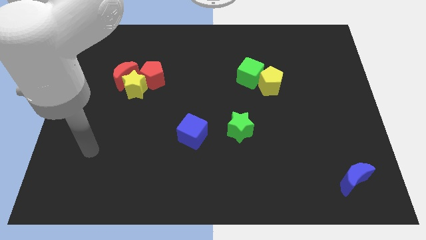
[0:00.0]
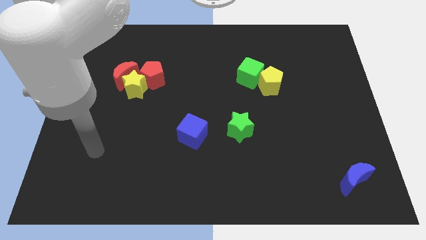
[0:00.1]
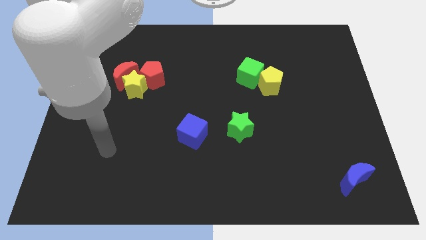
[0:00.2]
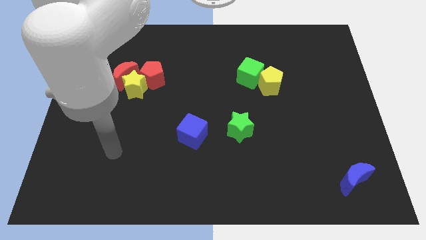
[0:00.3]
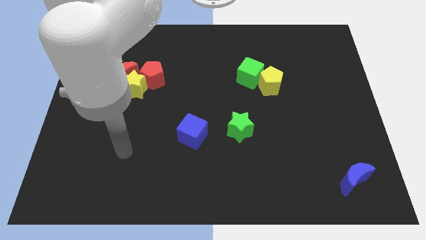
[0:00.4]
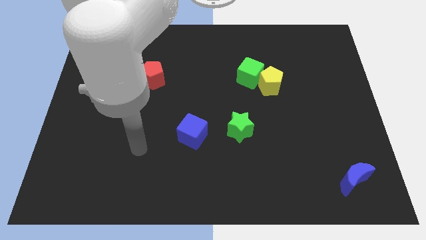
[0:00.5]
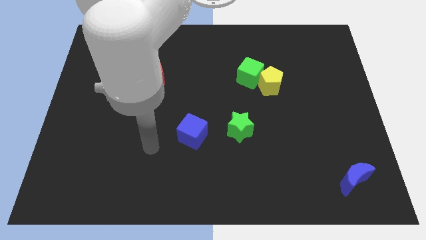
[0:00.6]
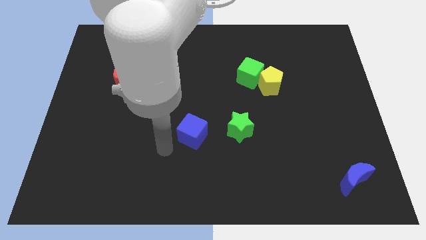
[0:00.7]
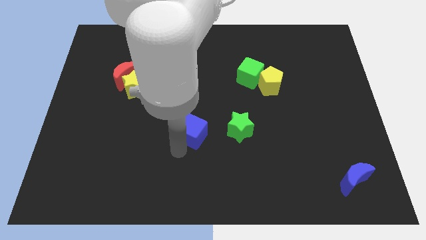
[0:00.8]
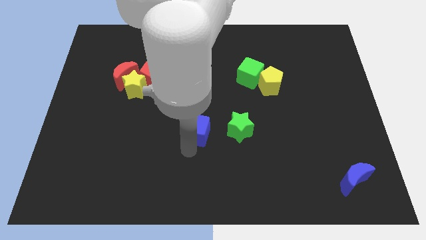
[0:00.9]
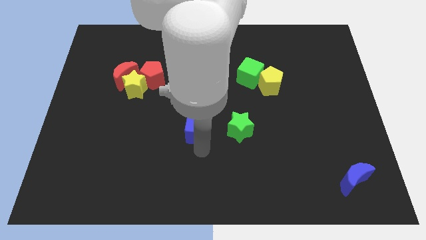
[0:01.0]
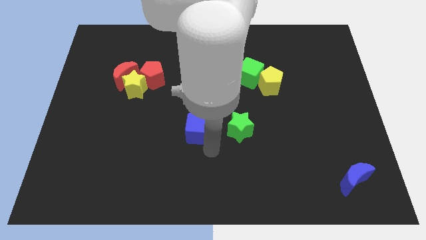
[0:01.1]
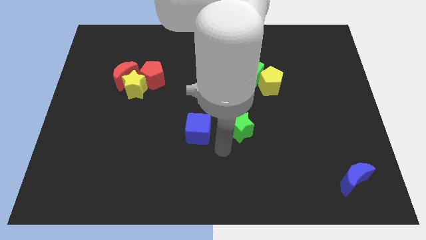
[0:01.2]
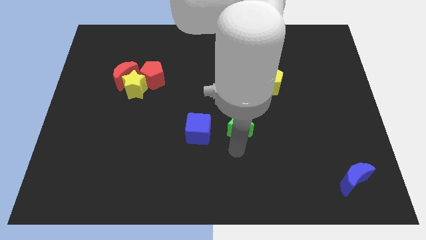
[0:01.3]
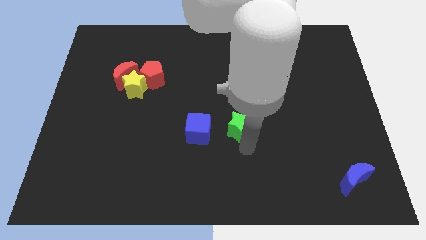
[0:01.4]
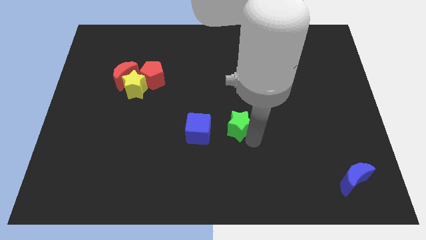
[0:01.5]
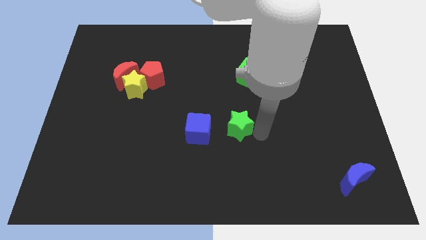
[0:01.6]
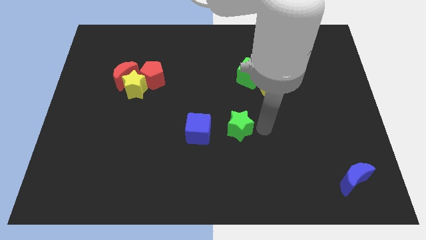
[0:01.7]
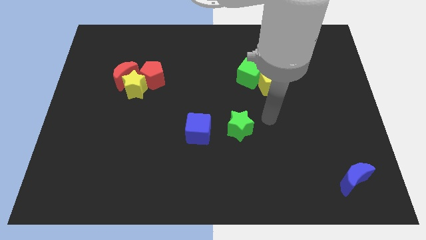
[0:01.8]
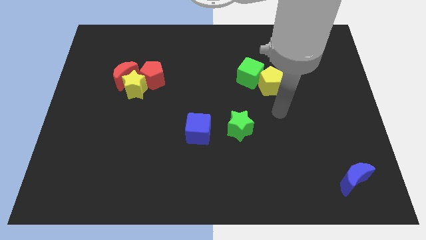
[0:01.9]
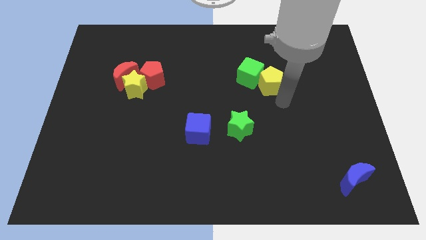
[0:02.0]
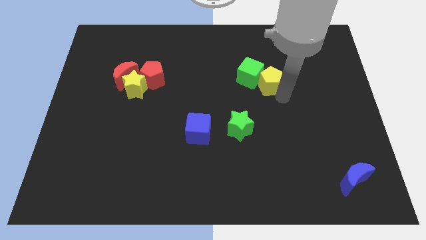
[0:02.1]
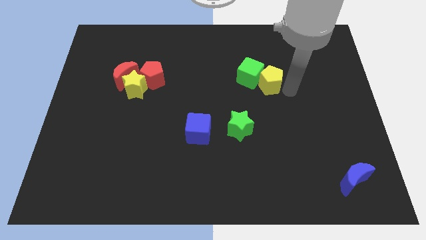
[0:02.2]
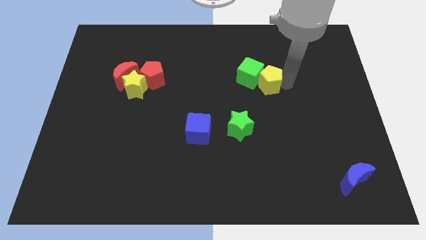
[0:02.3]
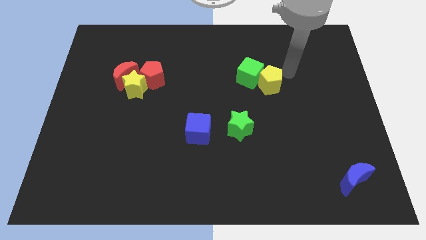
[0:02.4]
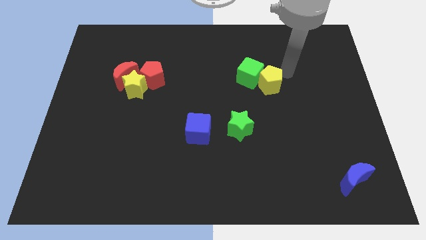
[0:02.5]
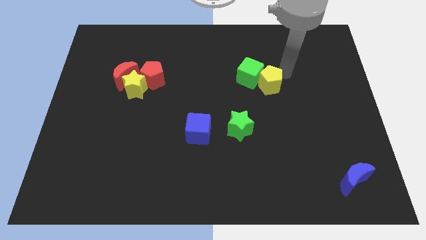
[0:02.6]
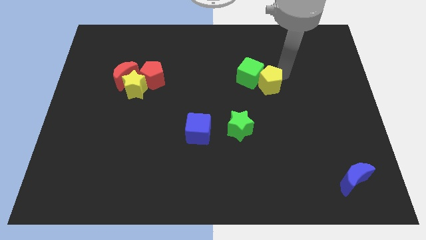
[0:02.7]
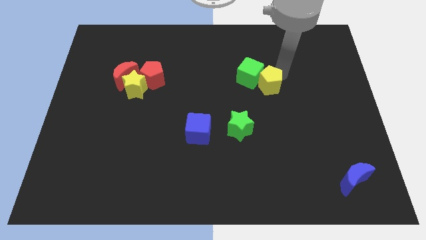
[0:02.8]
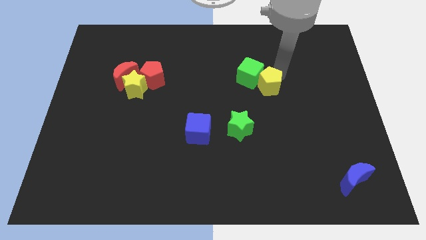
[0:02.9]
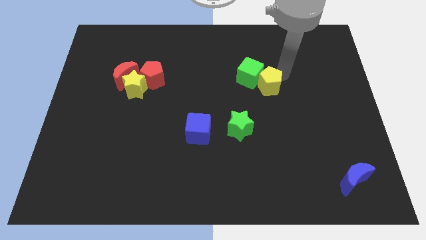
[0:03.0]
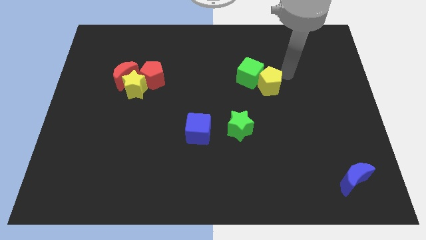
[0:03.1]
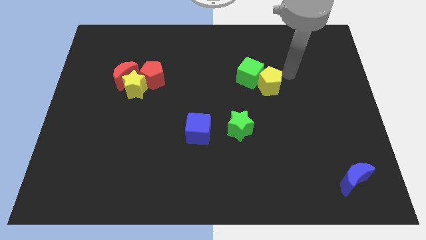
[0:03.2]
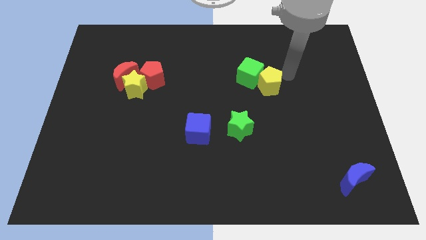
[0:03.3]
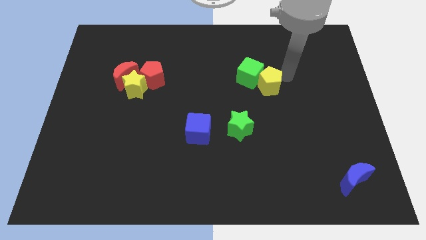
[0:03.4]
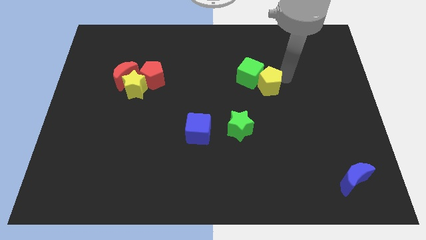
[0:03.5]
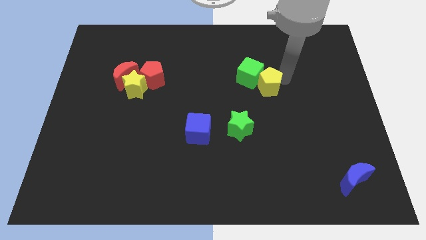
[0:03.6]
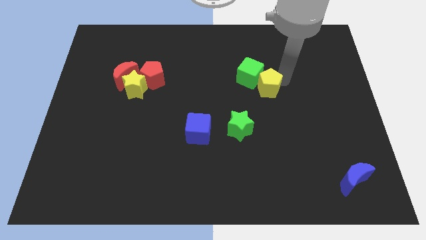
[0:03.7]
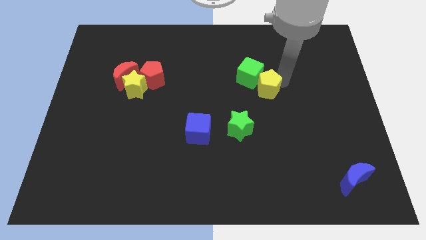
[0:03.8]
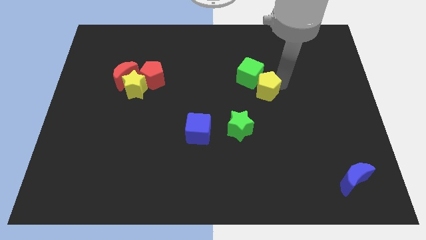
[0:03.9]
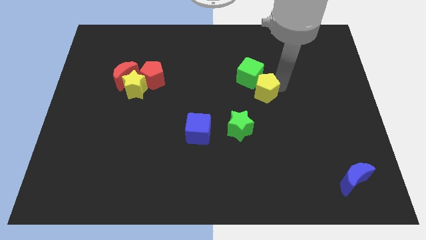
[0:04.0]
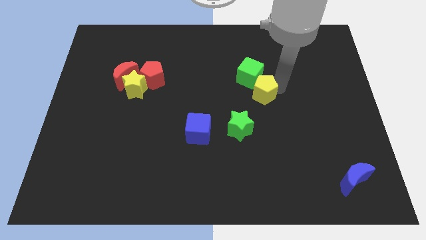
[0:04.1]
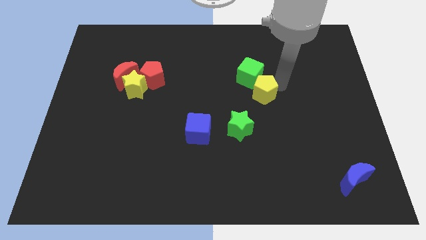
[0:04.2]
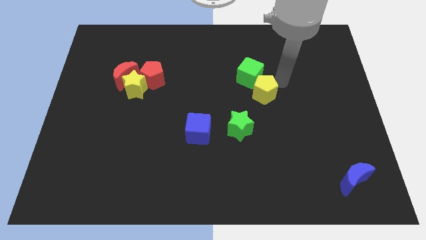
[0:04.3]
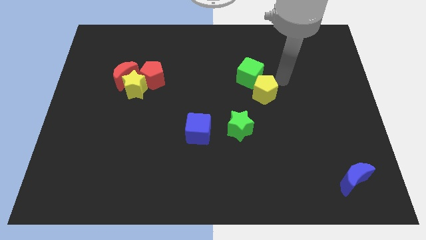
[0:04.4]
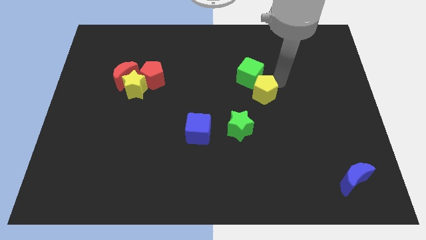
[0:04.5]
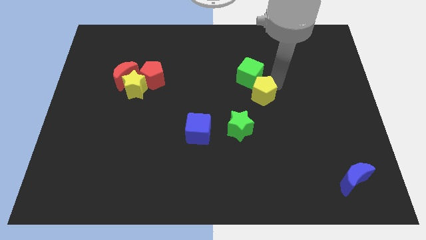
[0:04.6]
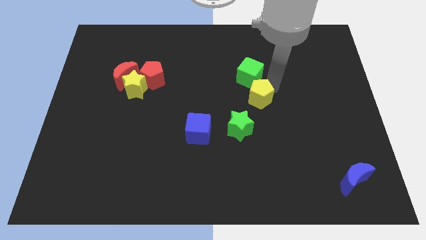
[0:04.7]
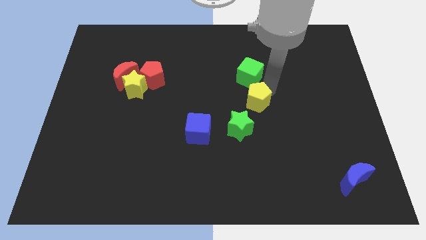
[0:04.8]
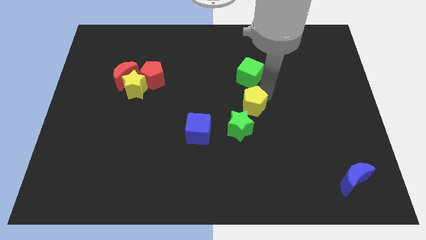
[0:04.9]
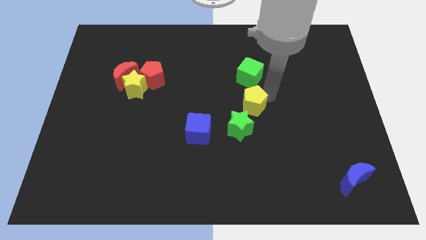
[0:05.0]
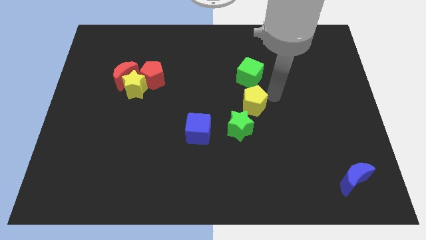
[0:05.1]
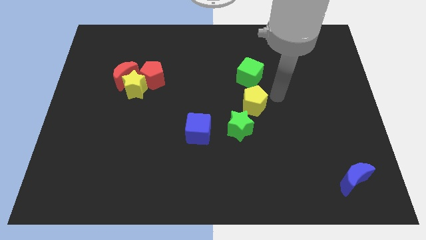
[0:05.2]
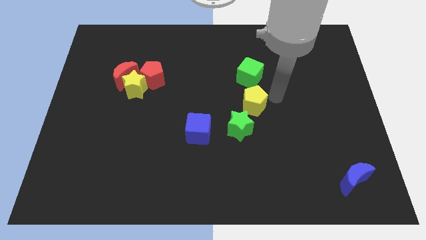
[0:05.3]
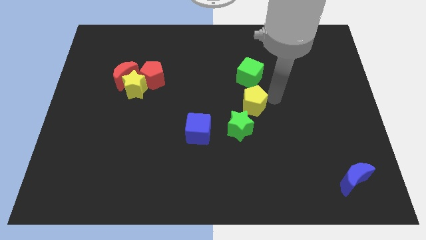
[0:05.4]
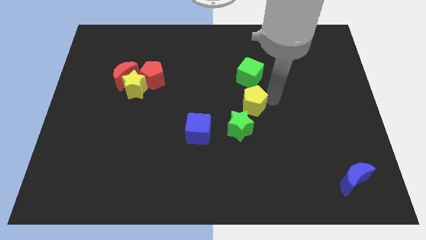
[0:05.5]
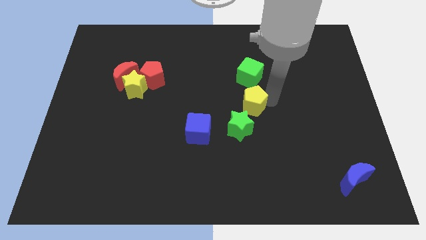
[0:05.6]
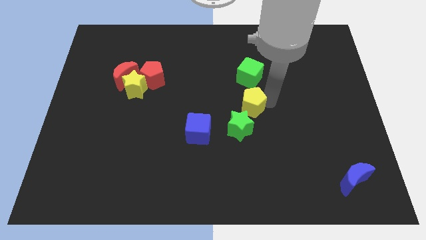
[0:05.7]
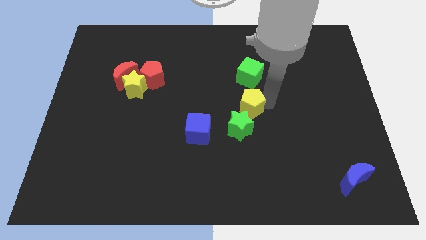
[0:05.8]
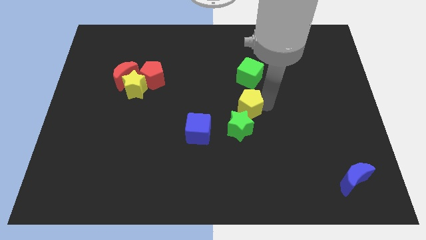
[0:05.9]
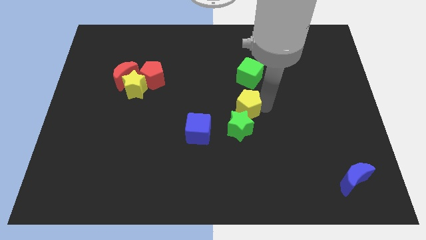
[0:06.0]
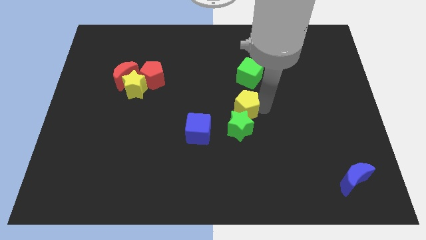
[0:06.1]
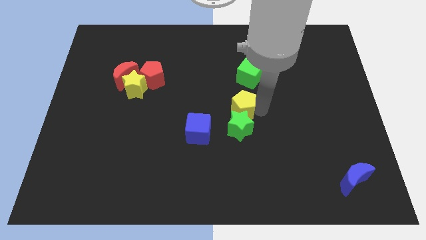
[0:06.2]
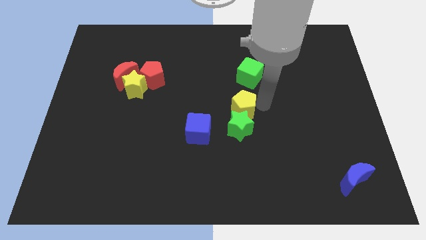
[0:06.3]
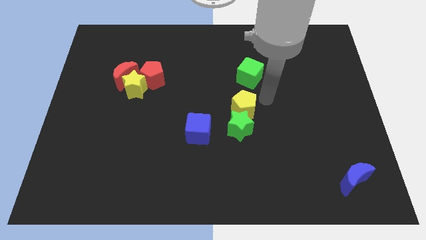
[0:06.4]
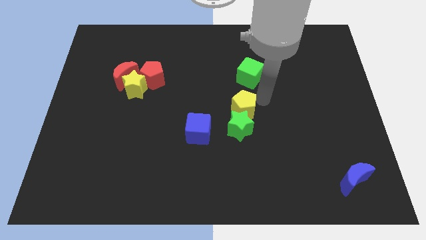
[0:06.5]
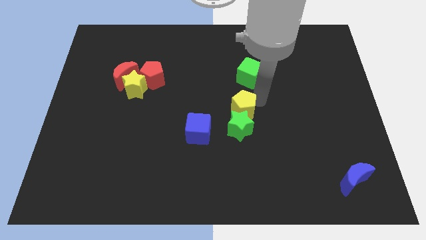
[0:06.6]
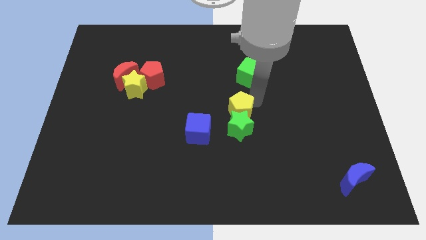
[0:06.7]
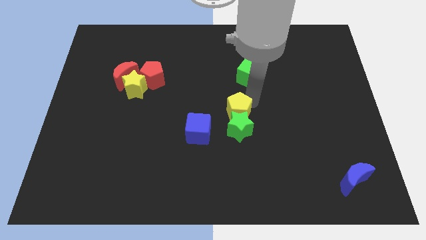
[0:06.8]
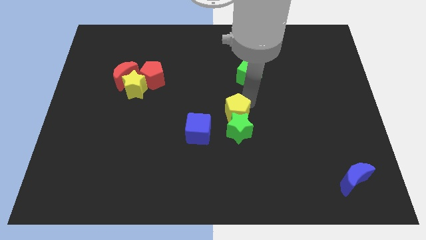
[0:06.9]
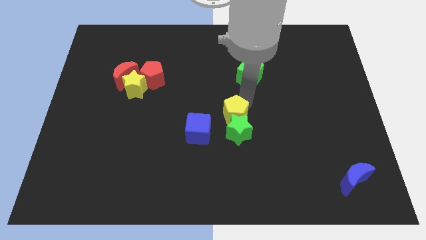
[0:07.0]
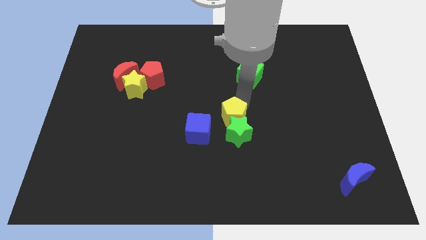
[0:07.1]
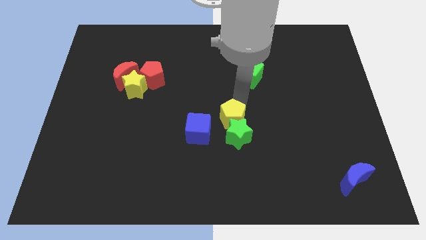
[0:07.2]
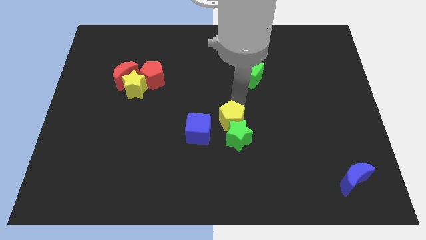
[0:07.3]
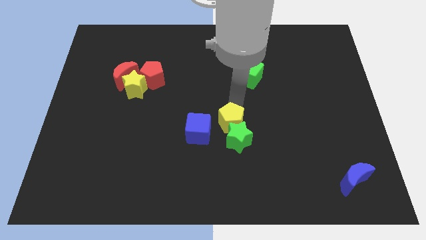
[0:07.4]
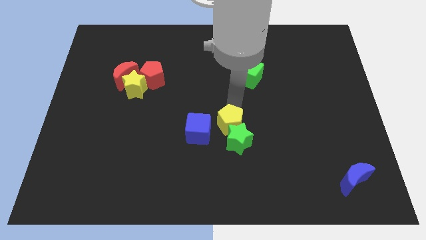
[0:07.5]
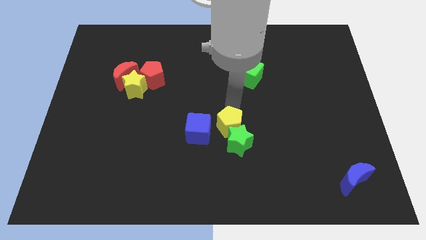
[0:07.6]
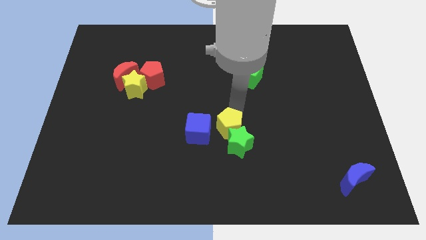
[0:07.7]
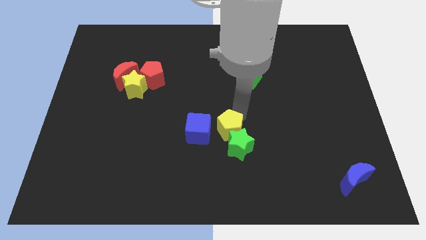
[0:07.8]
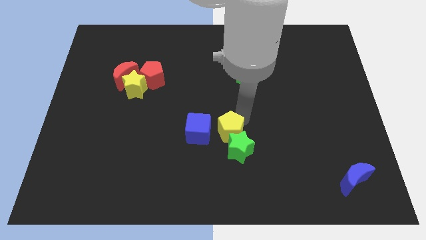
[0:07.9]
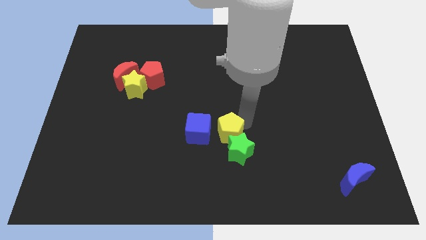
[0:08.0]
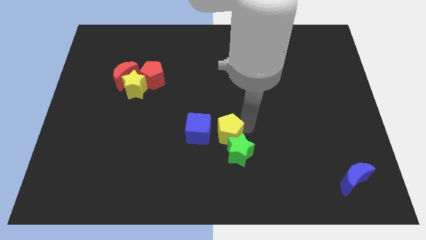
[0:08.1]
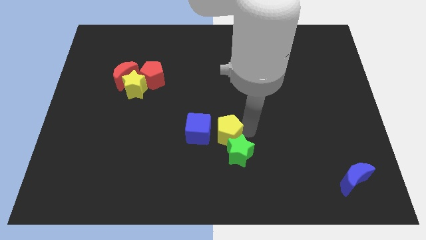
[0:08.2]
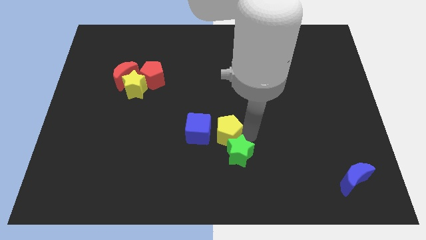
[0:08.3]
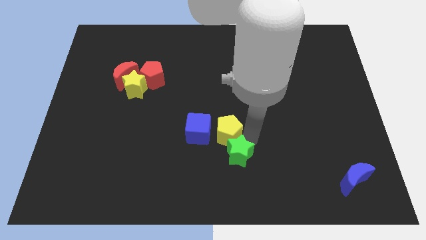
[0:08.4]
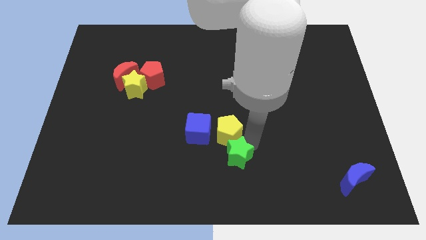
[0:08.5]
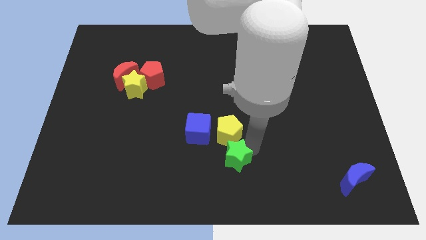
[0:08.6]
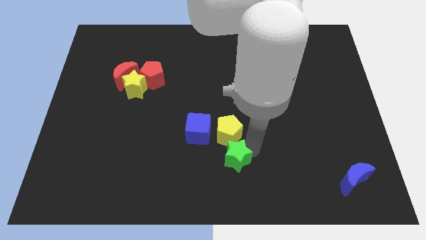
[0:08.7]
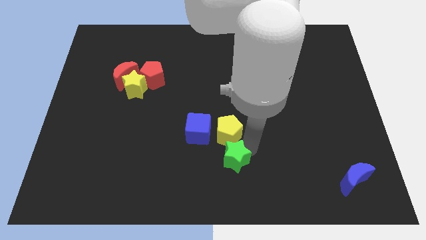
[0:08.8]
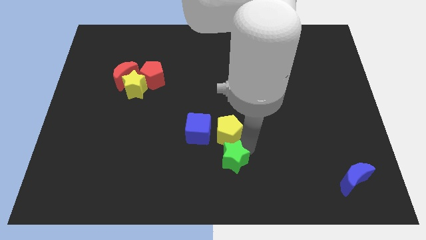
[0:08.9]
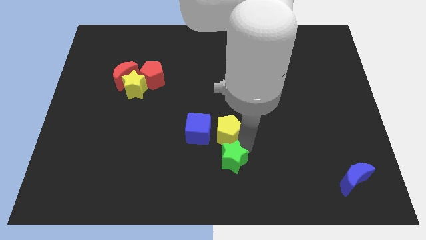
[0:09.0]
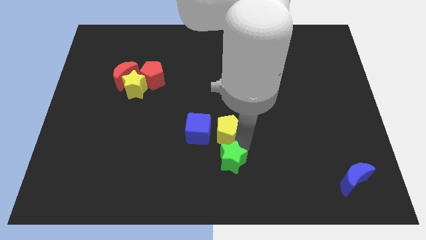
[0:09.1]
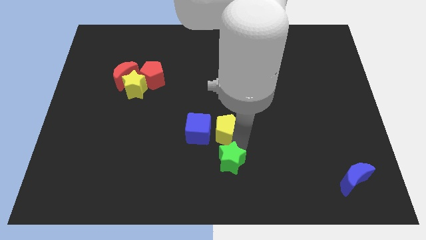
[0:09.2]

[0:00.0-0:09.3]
move the yellow pentagon to the blue cube
